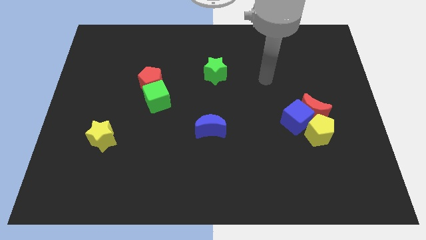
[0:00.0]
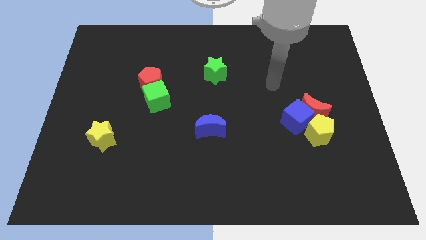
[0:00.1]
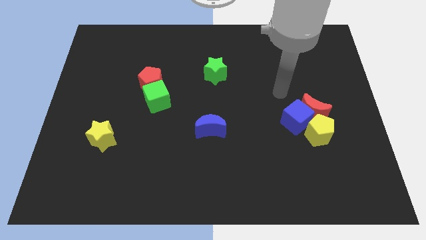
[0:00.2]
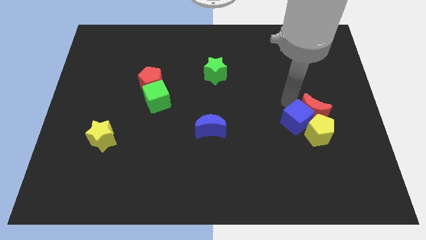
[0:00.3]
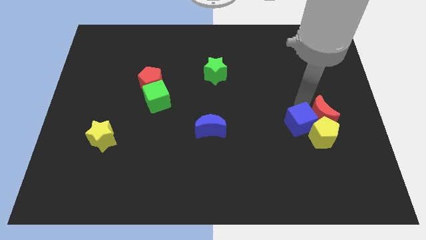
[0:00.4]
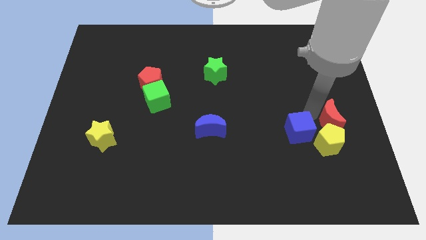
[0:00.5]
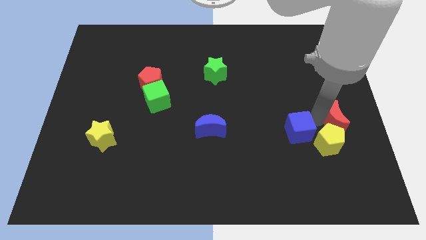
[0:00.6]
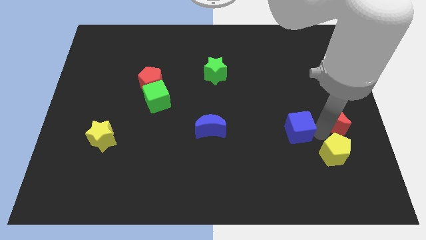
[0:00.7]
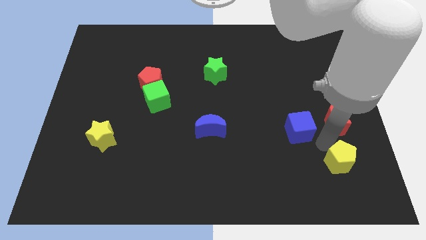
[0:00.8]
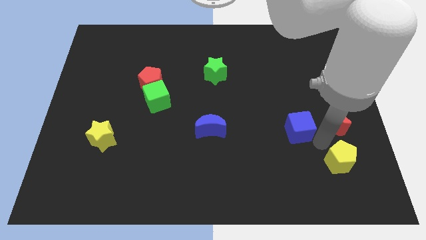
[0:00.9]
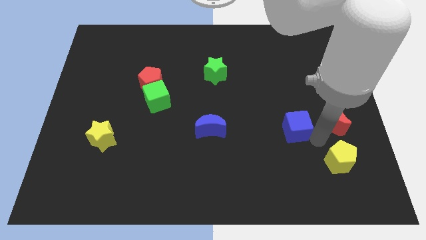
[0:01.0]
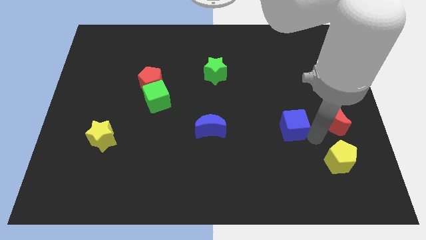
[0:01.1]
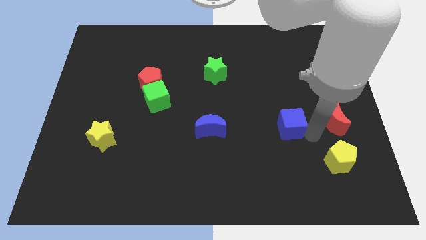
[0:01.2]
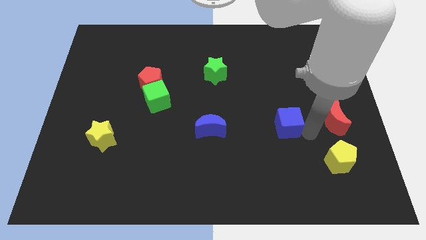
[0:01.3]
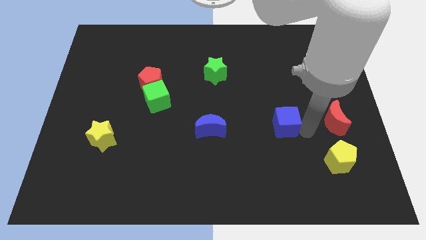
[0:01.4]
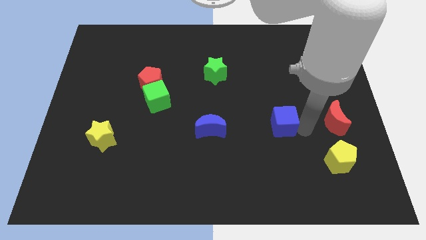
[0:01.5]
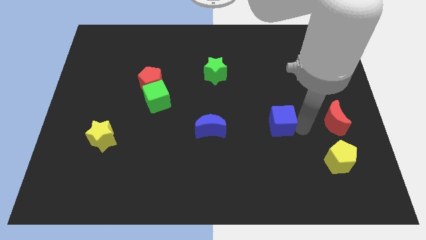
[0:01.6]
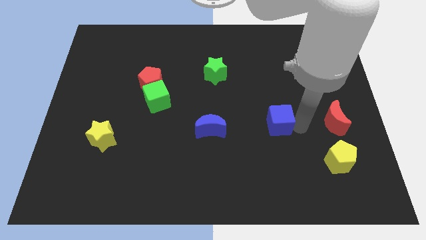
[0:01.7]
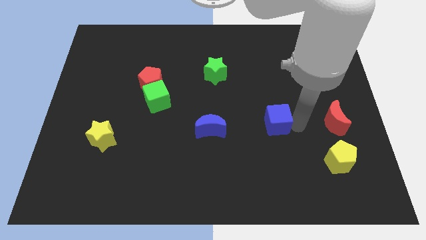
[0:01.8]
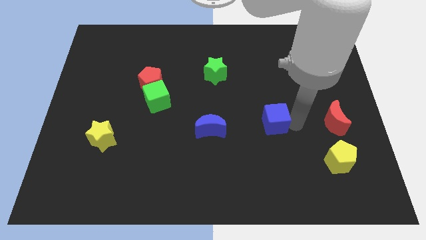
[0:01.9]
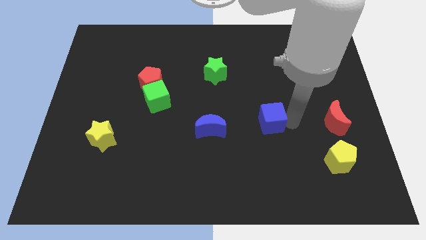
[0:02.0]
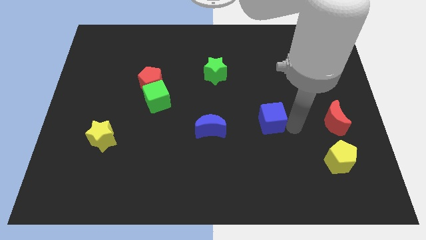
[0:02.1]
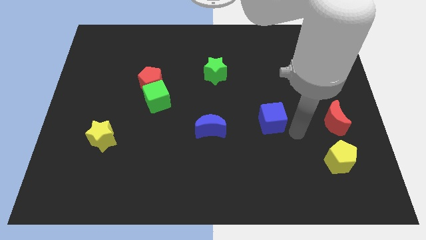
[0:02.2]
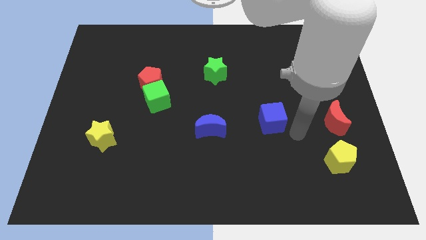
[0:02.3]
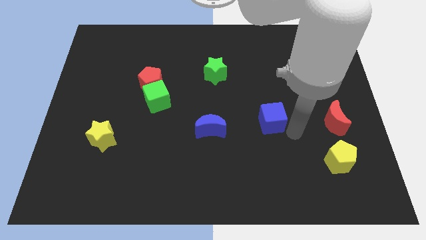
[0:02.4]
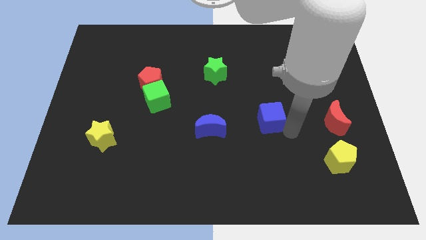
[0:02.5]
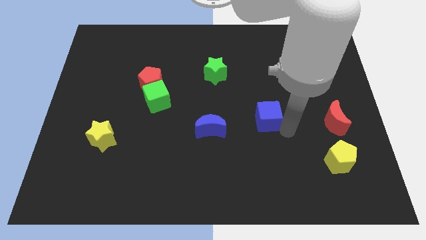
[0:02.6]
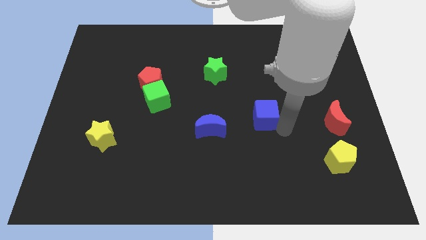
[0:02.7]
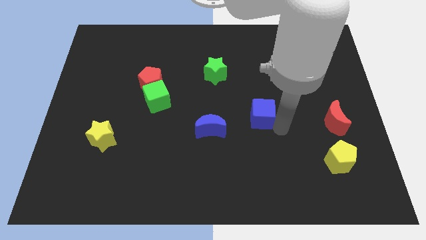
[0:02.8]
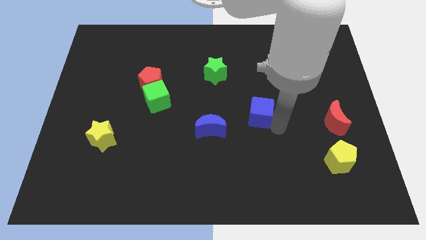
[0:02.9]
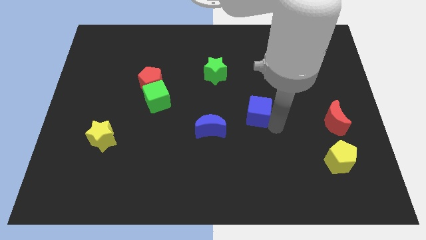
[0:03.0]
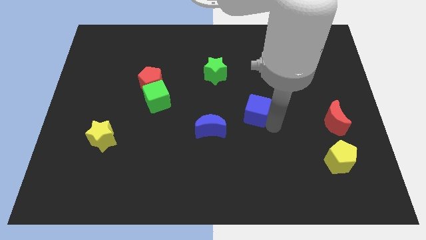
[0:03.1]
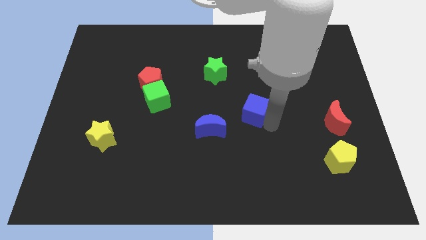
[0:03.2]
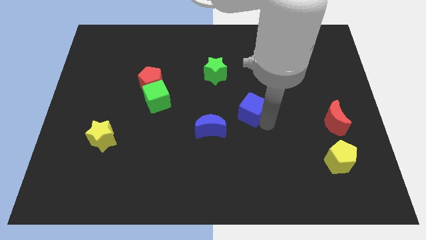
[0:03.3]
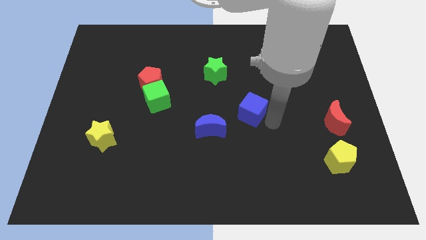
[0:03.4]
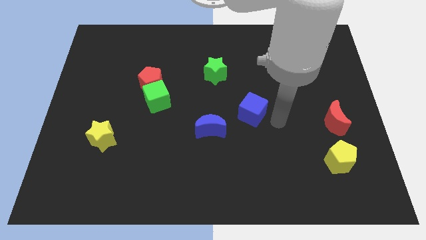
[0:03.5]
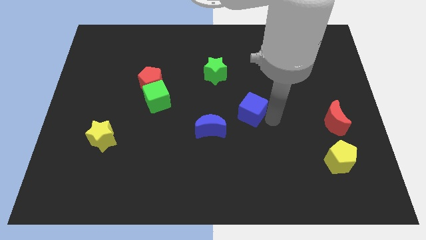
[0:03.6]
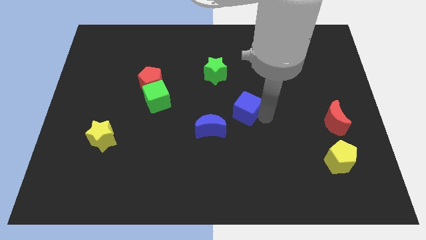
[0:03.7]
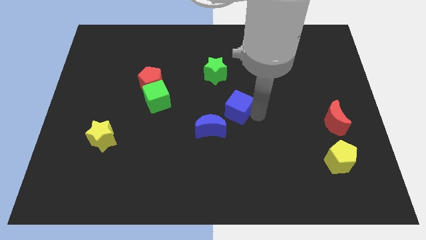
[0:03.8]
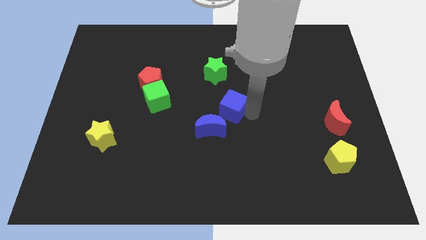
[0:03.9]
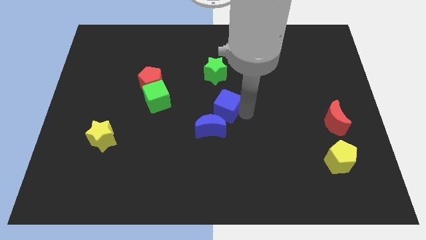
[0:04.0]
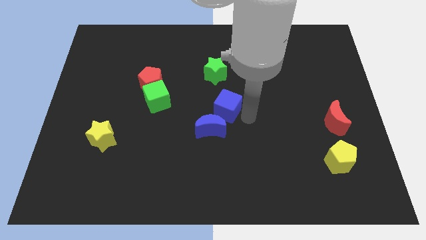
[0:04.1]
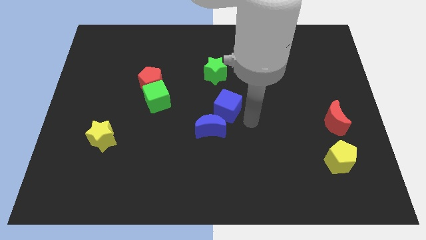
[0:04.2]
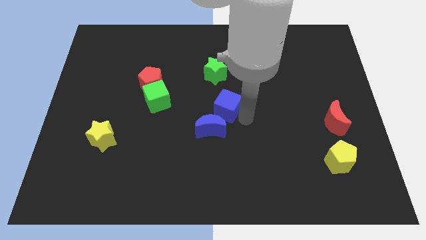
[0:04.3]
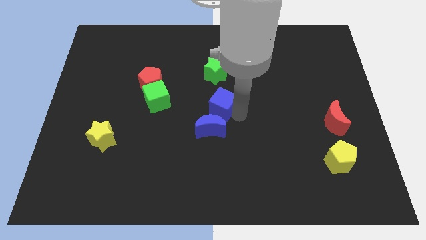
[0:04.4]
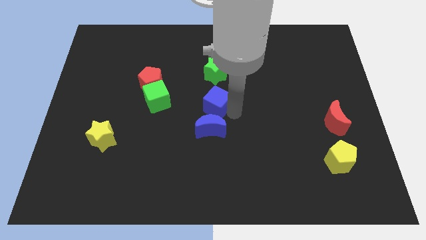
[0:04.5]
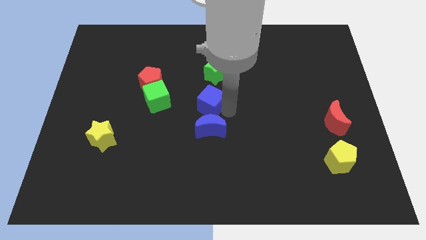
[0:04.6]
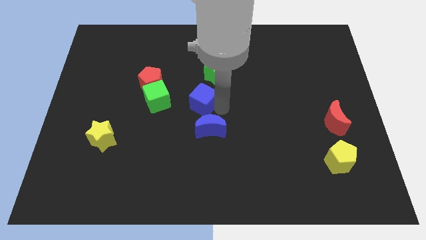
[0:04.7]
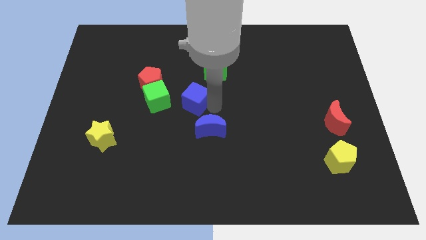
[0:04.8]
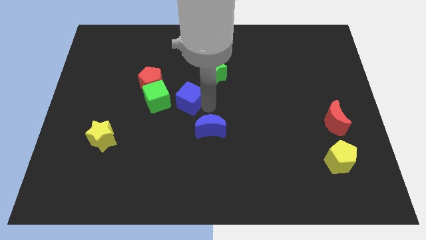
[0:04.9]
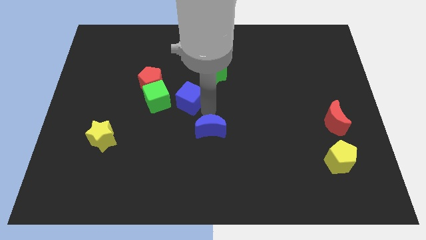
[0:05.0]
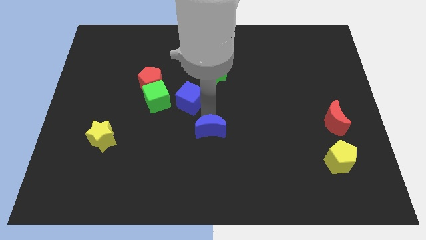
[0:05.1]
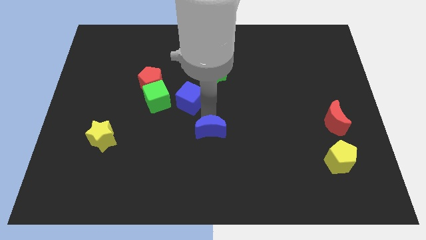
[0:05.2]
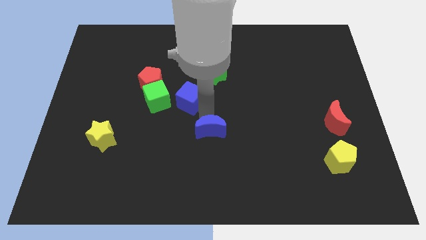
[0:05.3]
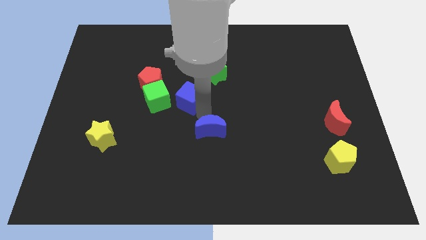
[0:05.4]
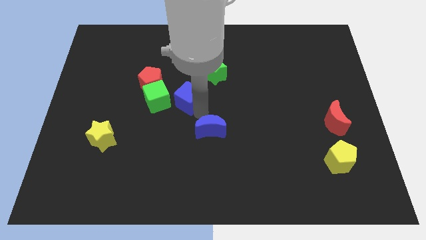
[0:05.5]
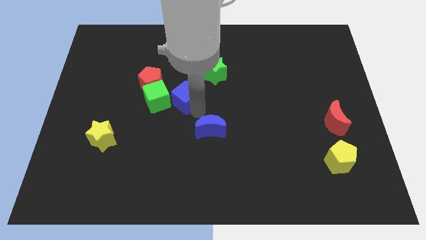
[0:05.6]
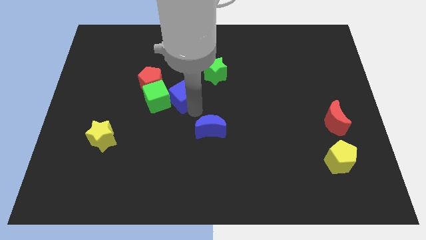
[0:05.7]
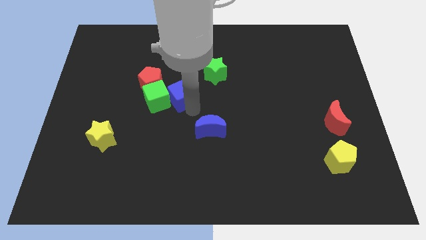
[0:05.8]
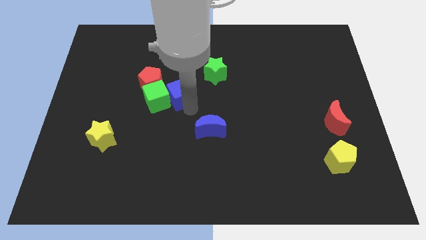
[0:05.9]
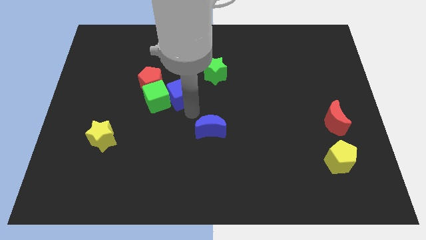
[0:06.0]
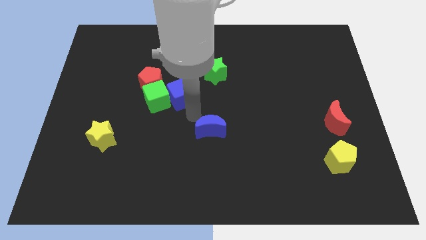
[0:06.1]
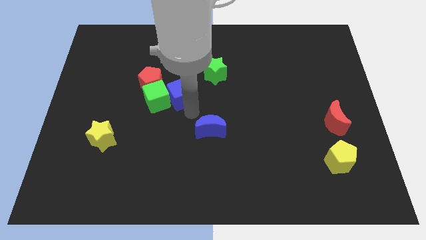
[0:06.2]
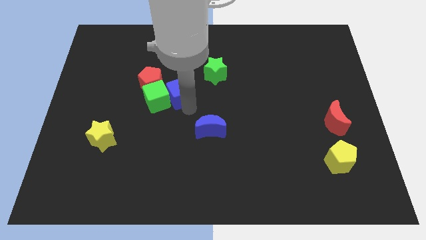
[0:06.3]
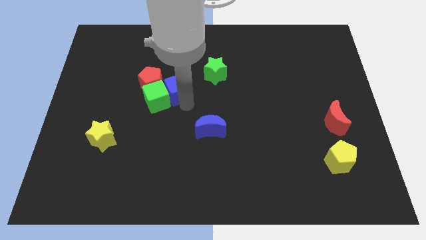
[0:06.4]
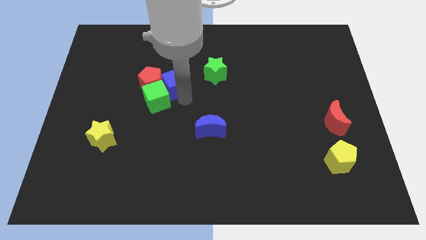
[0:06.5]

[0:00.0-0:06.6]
slide the blue cube towards the red pentagon

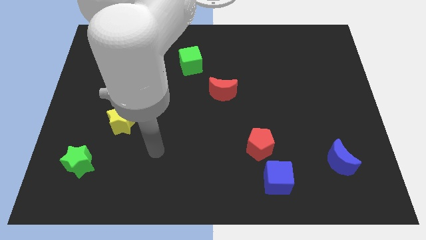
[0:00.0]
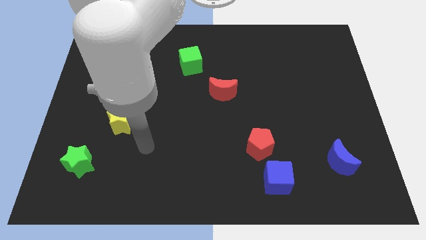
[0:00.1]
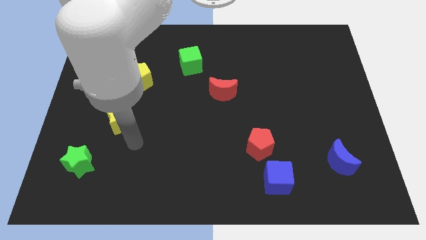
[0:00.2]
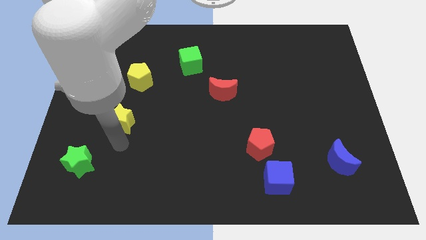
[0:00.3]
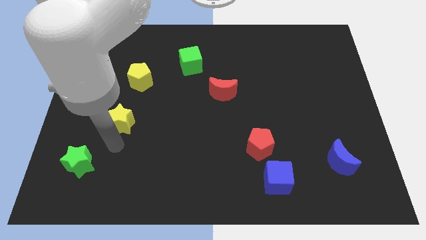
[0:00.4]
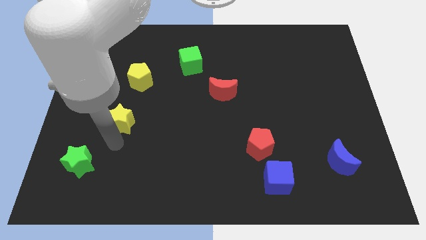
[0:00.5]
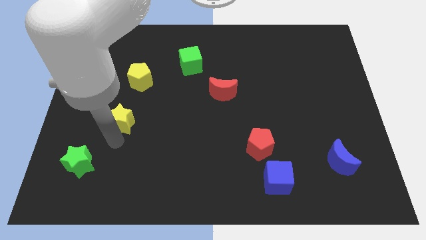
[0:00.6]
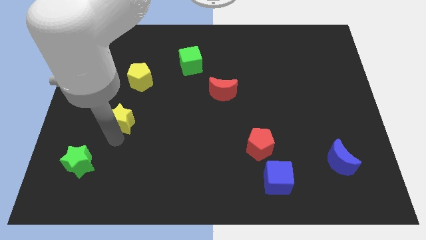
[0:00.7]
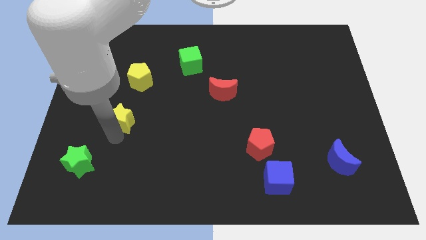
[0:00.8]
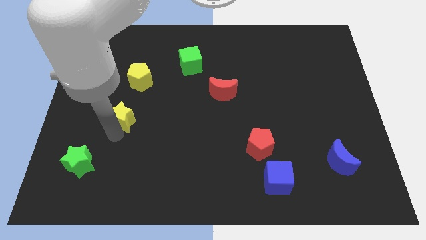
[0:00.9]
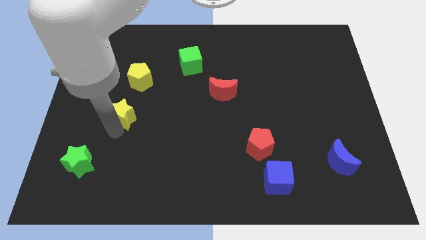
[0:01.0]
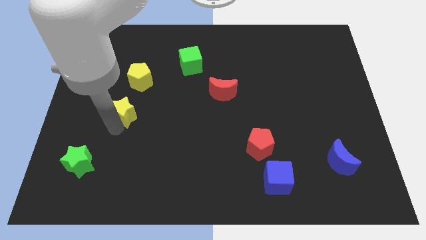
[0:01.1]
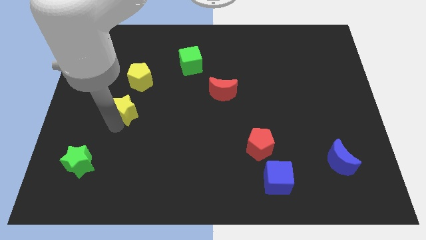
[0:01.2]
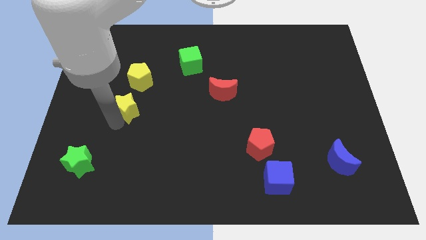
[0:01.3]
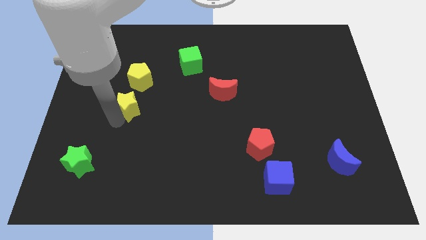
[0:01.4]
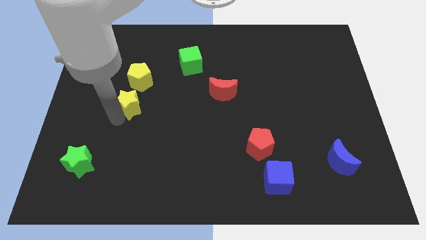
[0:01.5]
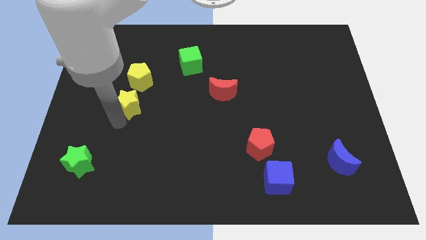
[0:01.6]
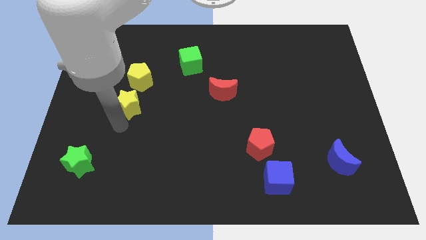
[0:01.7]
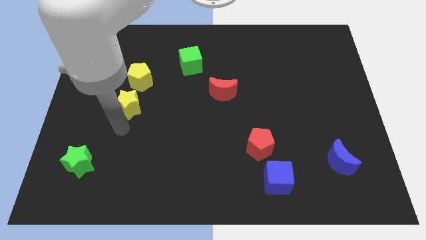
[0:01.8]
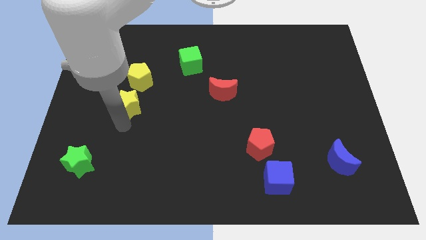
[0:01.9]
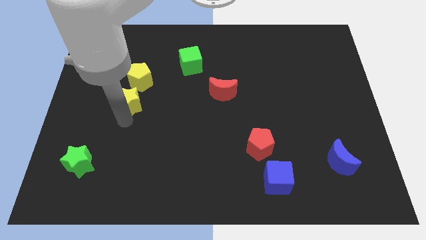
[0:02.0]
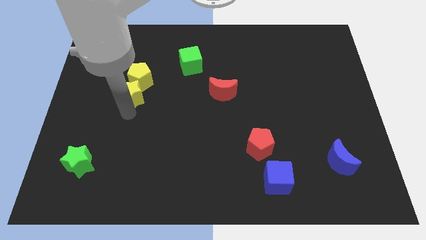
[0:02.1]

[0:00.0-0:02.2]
push the yellow star to the yellow pentagon
